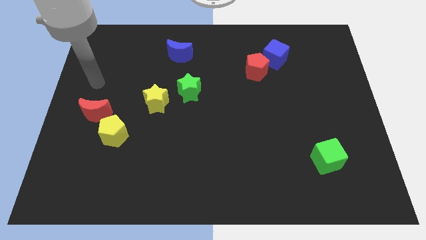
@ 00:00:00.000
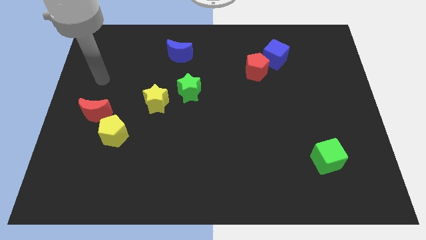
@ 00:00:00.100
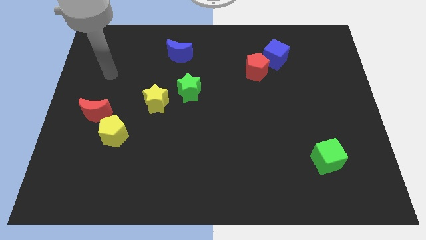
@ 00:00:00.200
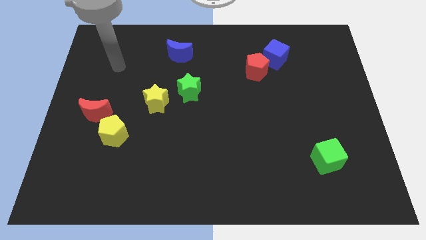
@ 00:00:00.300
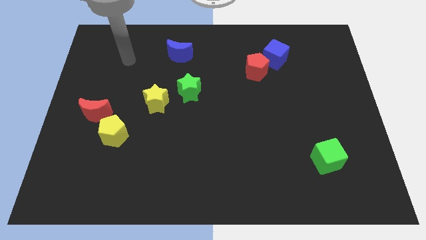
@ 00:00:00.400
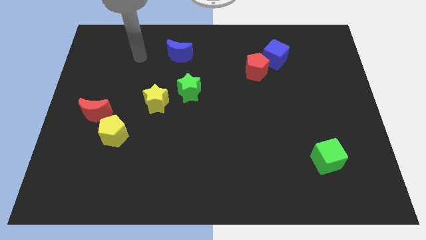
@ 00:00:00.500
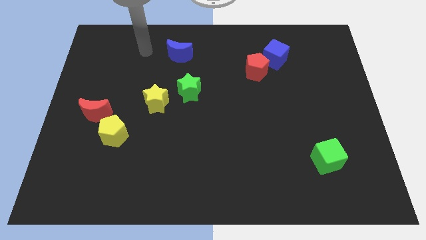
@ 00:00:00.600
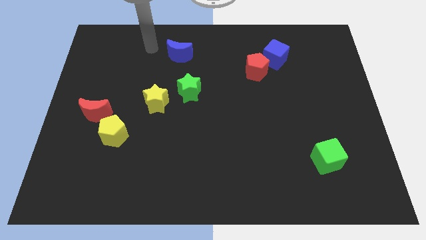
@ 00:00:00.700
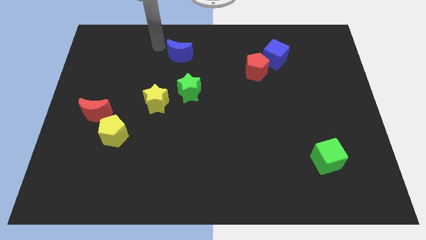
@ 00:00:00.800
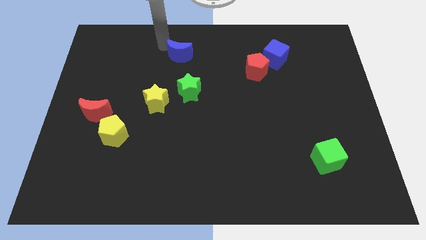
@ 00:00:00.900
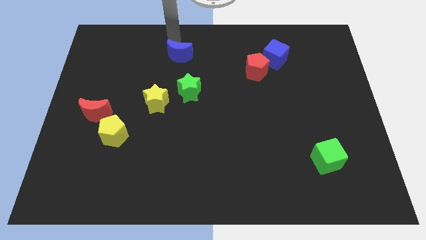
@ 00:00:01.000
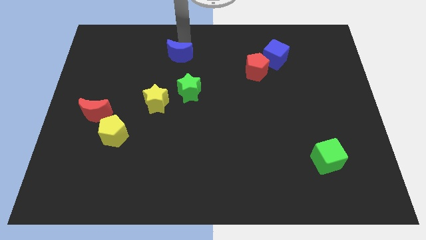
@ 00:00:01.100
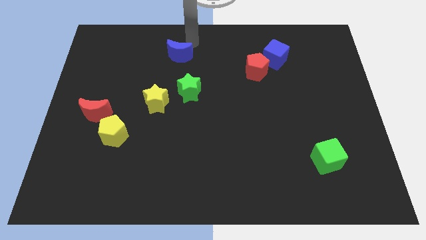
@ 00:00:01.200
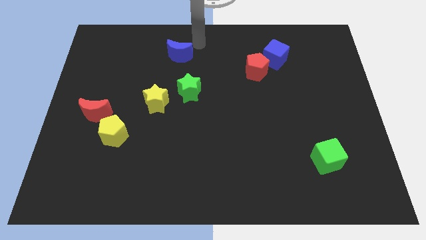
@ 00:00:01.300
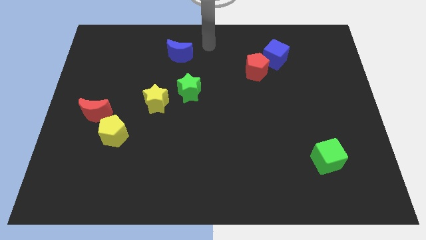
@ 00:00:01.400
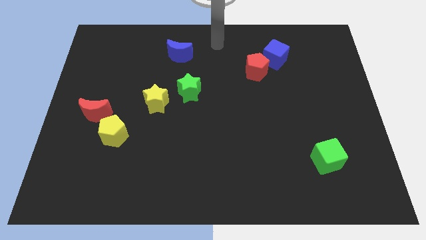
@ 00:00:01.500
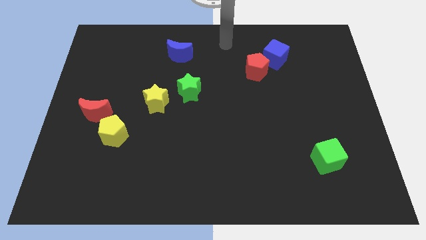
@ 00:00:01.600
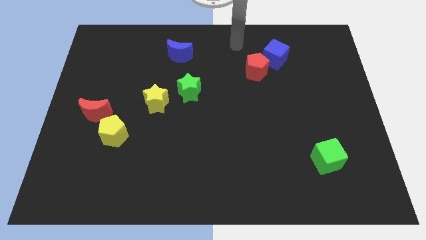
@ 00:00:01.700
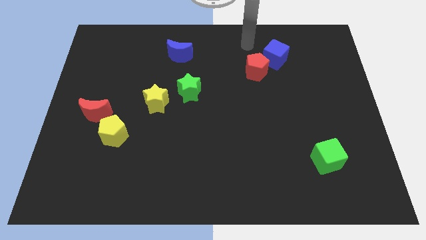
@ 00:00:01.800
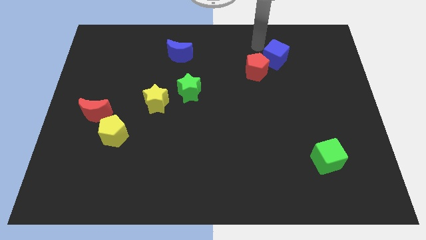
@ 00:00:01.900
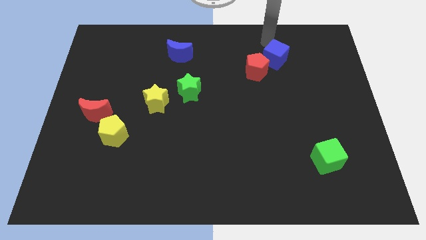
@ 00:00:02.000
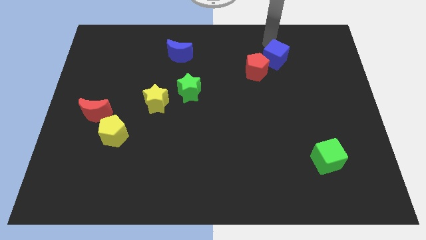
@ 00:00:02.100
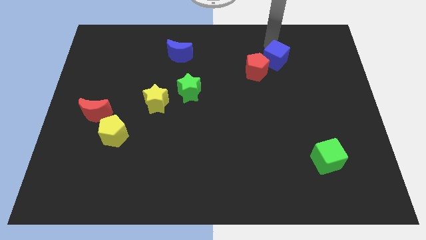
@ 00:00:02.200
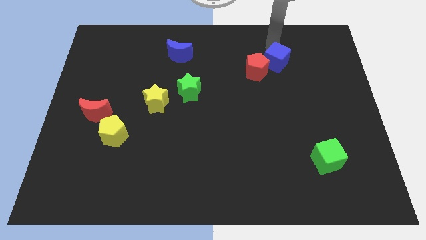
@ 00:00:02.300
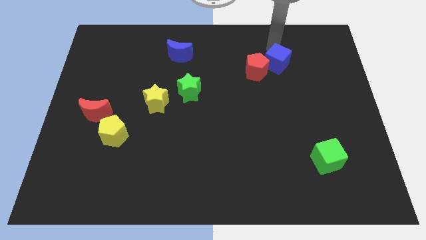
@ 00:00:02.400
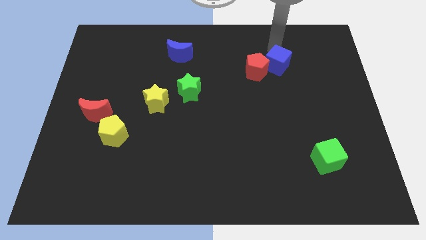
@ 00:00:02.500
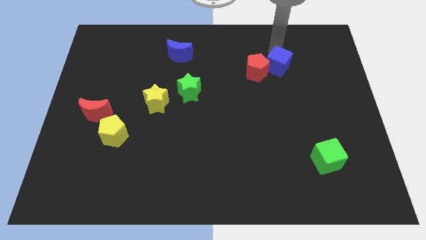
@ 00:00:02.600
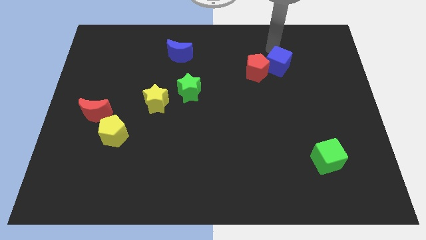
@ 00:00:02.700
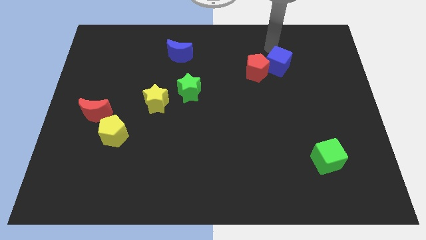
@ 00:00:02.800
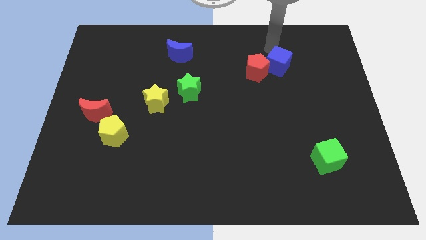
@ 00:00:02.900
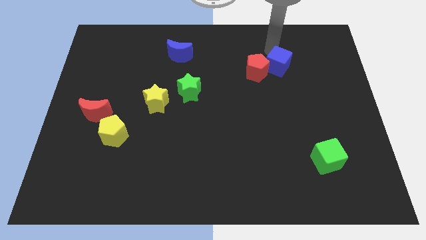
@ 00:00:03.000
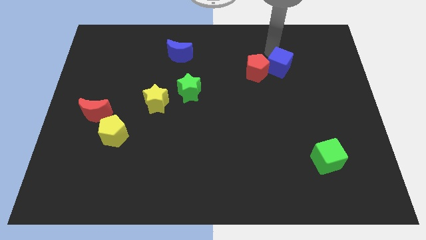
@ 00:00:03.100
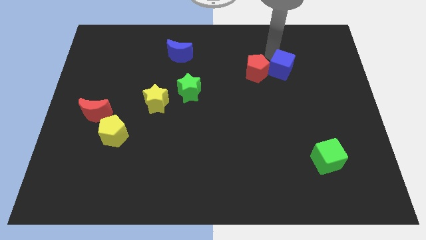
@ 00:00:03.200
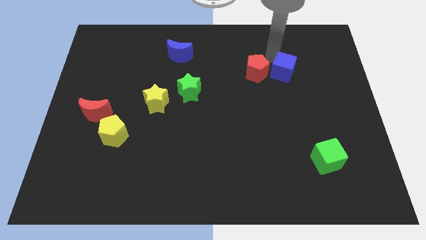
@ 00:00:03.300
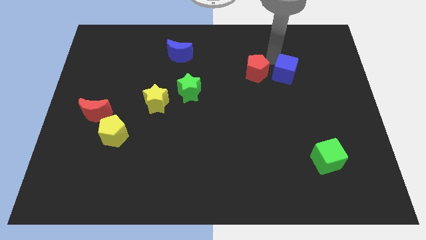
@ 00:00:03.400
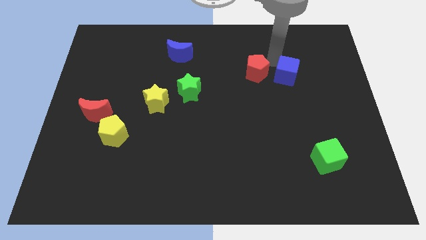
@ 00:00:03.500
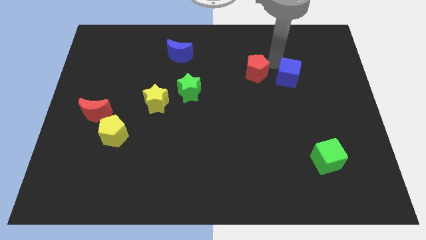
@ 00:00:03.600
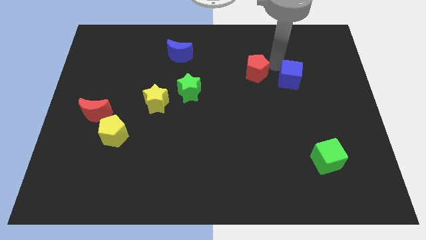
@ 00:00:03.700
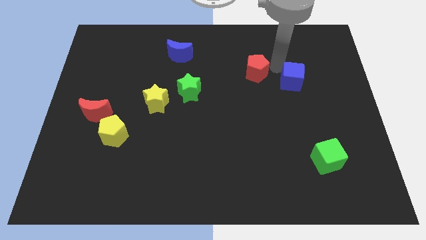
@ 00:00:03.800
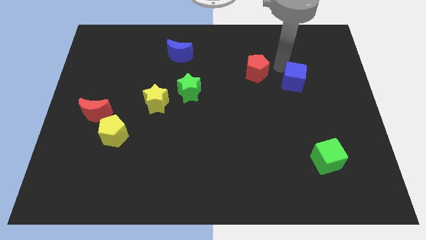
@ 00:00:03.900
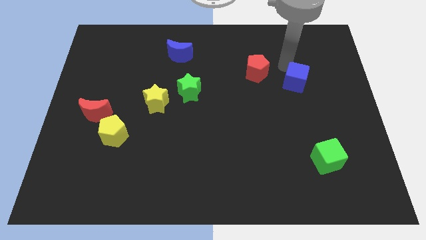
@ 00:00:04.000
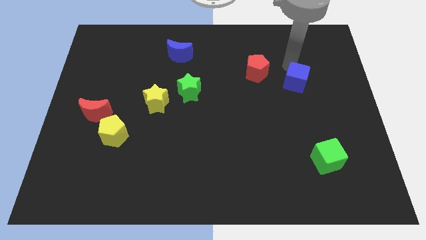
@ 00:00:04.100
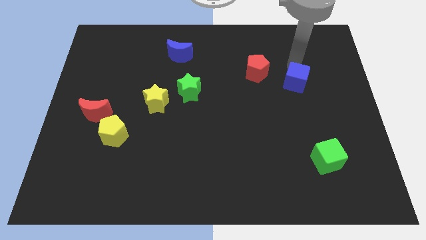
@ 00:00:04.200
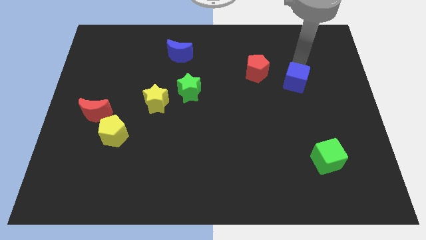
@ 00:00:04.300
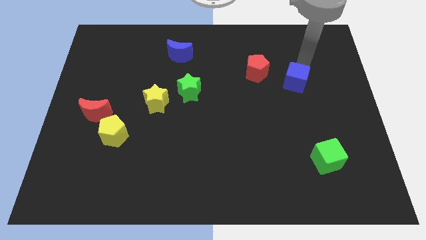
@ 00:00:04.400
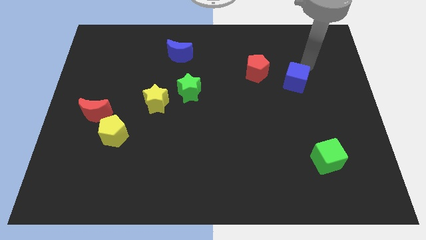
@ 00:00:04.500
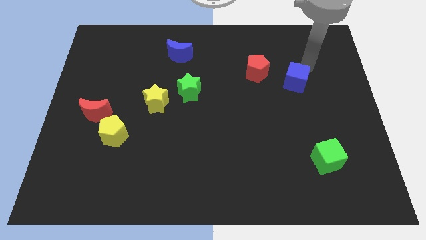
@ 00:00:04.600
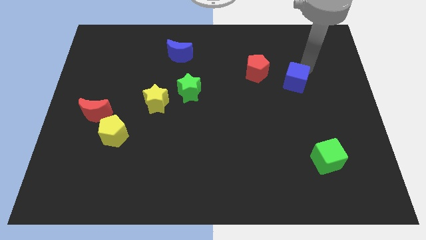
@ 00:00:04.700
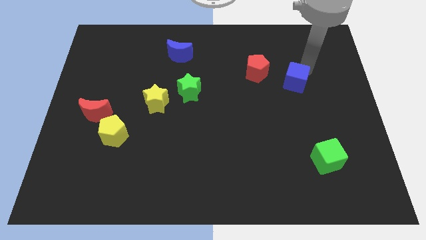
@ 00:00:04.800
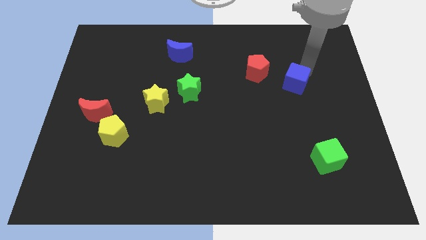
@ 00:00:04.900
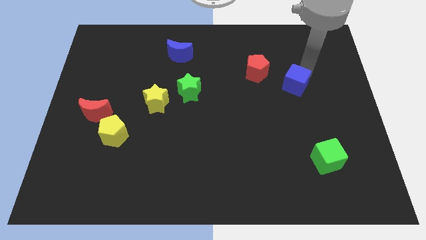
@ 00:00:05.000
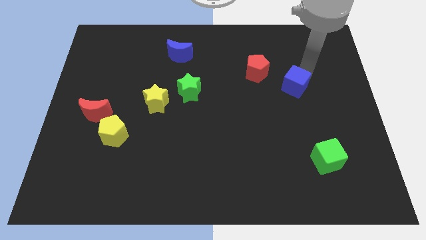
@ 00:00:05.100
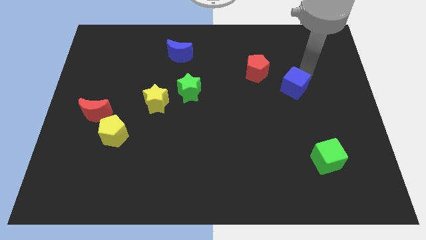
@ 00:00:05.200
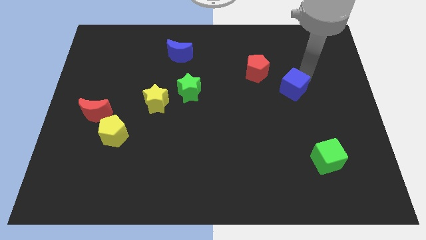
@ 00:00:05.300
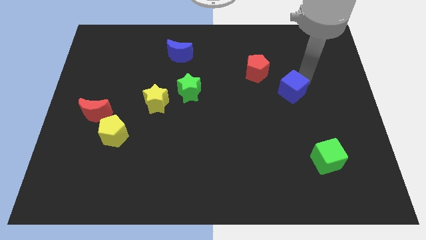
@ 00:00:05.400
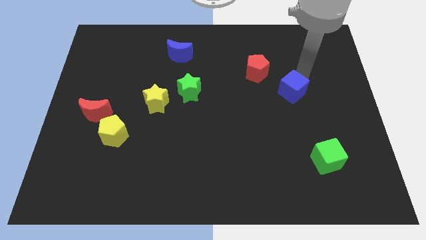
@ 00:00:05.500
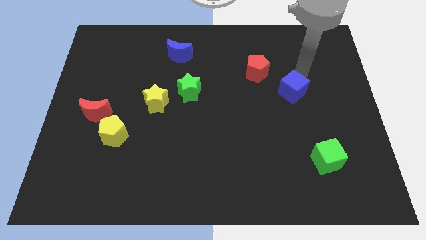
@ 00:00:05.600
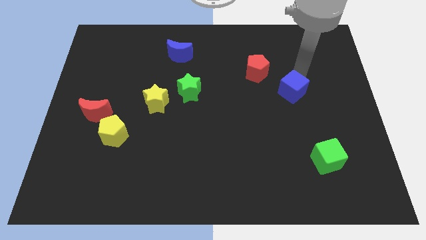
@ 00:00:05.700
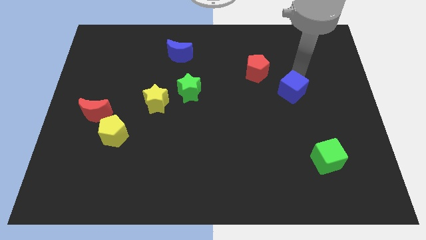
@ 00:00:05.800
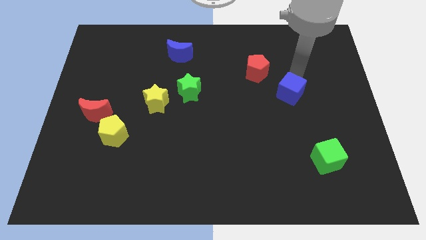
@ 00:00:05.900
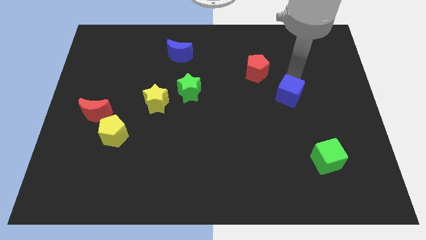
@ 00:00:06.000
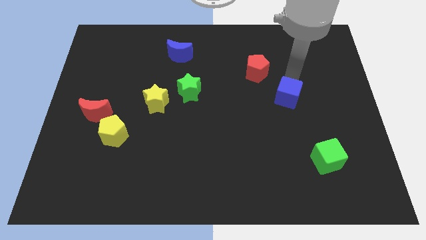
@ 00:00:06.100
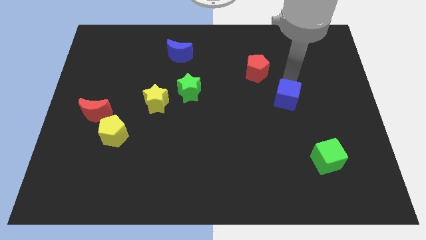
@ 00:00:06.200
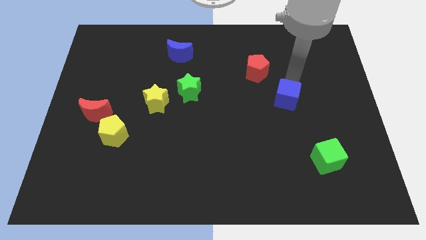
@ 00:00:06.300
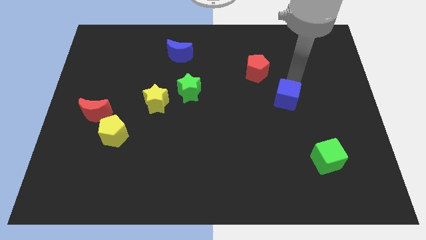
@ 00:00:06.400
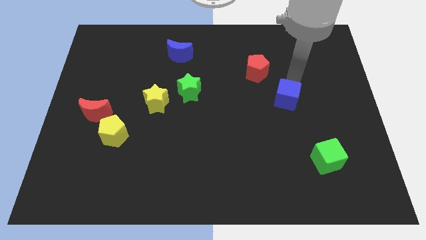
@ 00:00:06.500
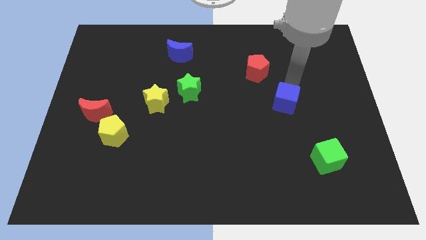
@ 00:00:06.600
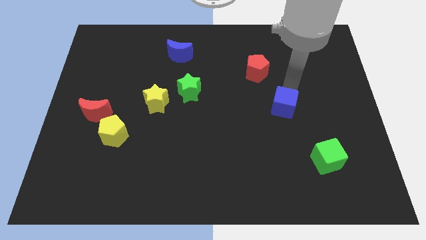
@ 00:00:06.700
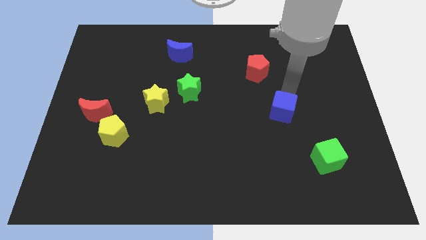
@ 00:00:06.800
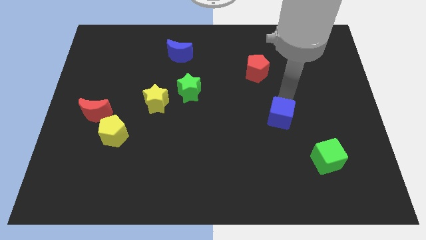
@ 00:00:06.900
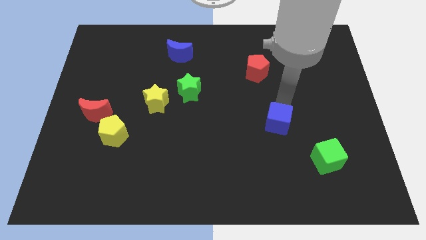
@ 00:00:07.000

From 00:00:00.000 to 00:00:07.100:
slide the blue cube down

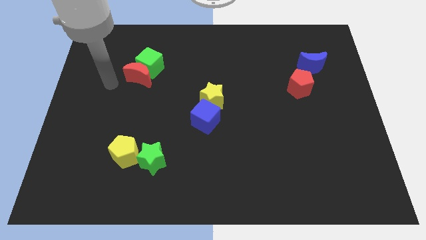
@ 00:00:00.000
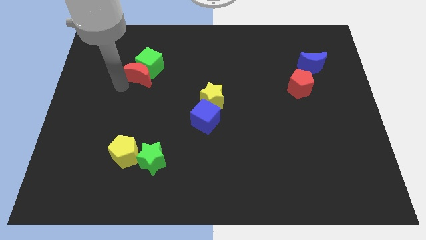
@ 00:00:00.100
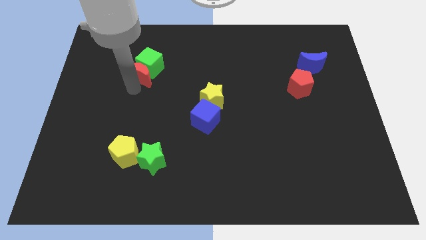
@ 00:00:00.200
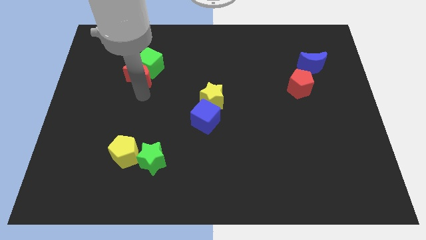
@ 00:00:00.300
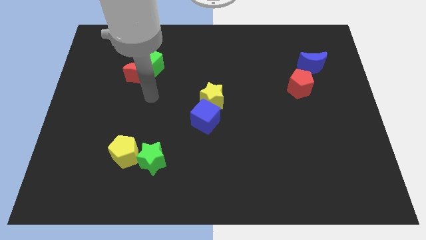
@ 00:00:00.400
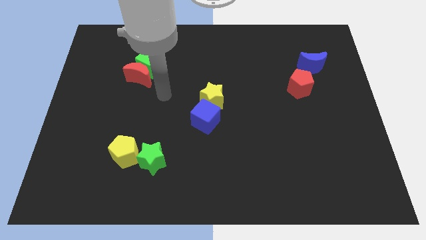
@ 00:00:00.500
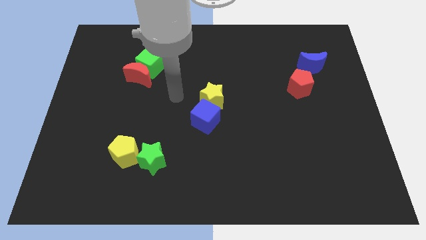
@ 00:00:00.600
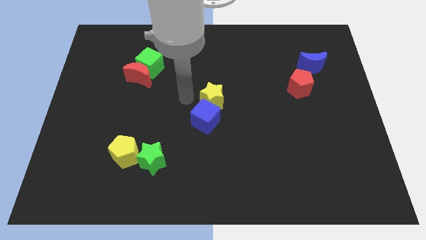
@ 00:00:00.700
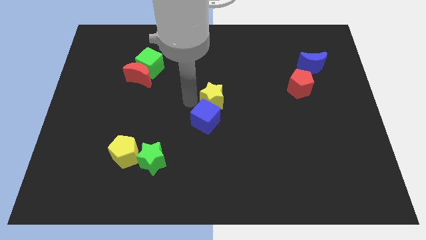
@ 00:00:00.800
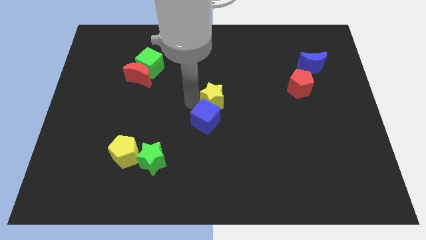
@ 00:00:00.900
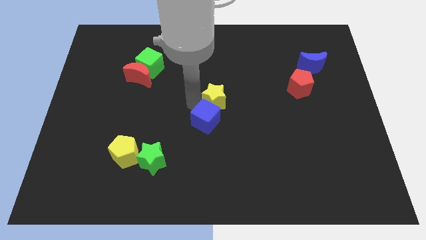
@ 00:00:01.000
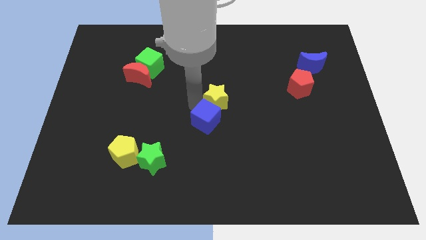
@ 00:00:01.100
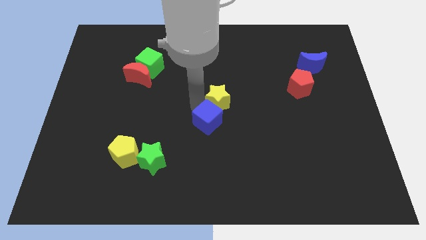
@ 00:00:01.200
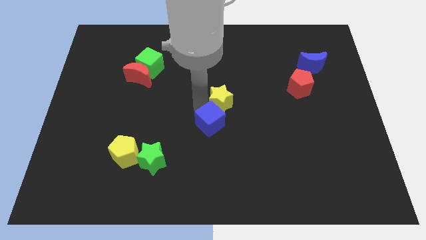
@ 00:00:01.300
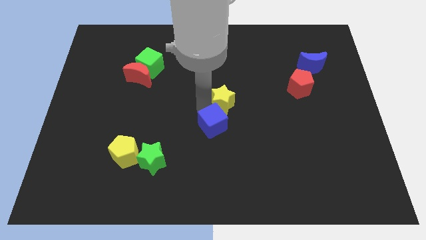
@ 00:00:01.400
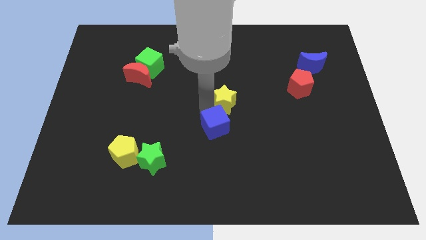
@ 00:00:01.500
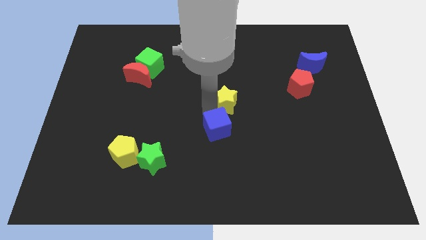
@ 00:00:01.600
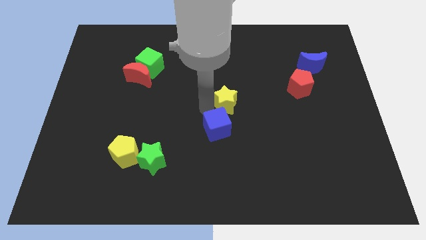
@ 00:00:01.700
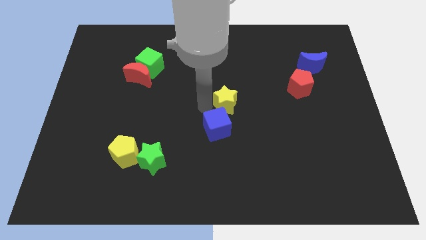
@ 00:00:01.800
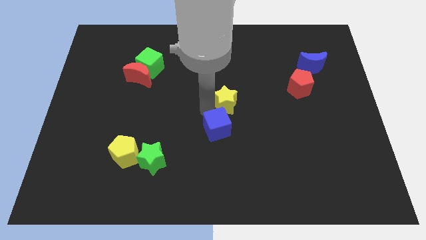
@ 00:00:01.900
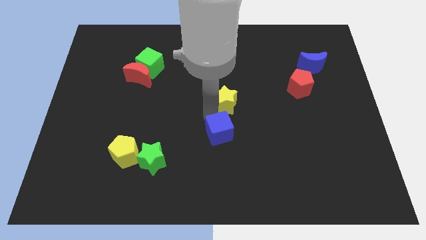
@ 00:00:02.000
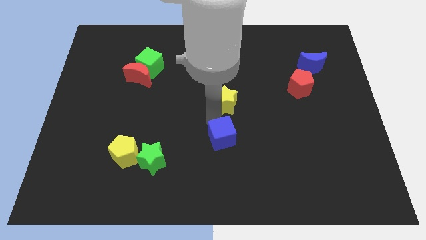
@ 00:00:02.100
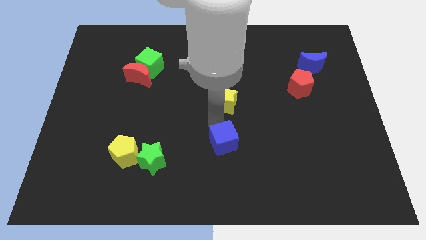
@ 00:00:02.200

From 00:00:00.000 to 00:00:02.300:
slightly slide the blue cube down and then to the right
